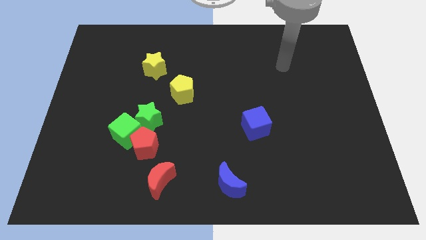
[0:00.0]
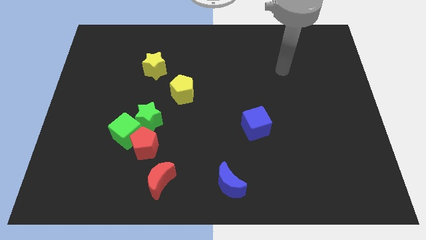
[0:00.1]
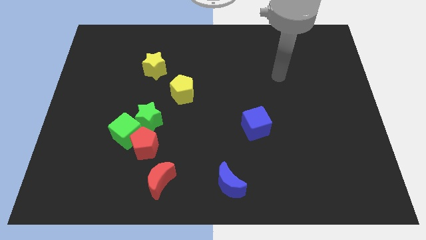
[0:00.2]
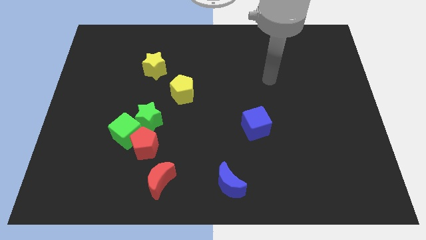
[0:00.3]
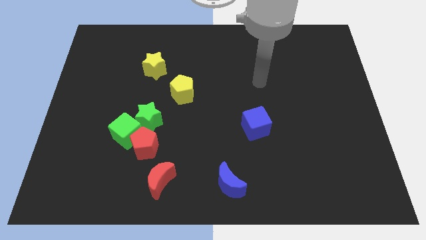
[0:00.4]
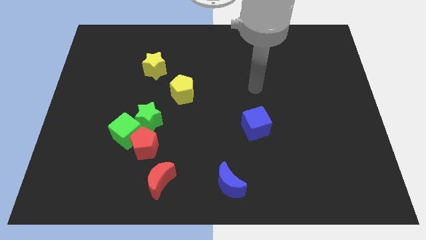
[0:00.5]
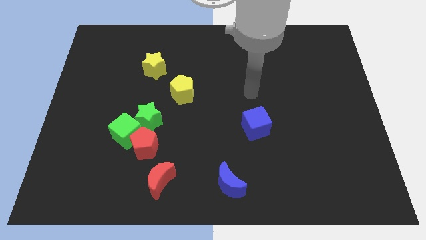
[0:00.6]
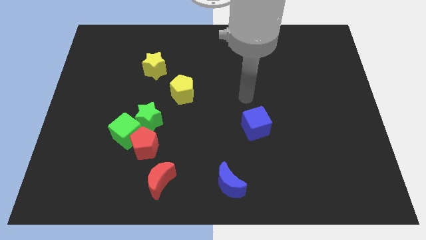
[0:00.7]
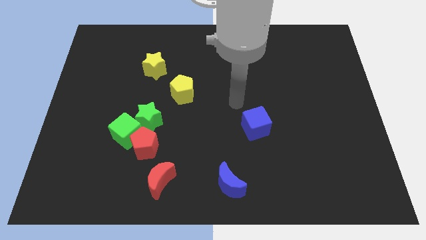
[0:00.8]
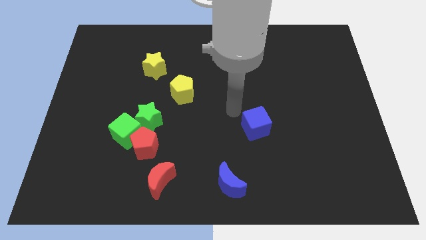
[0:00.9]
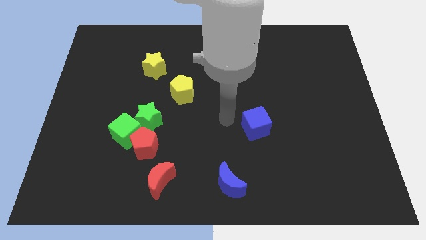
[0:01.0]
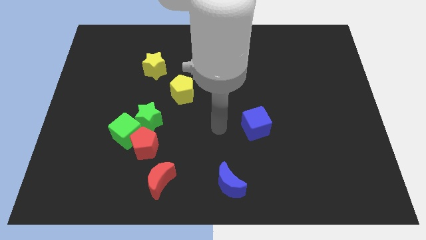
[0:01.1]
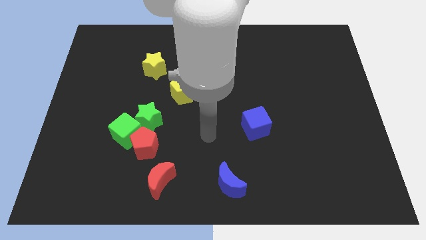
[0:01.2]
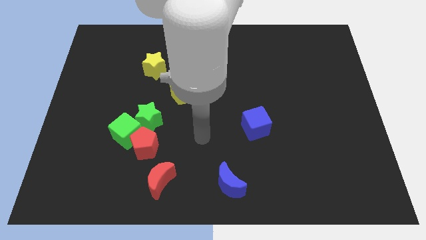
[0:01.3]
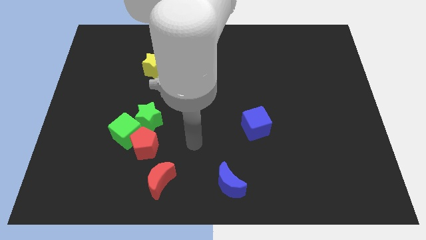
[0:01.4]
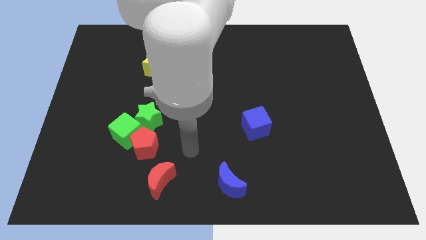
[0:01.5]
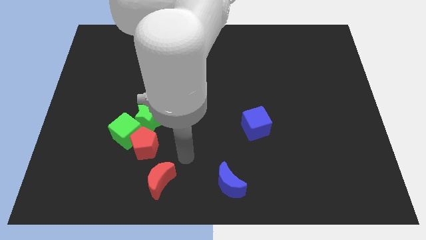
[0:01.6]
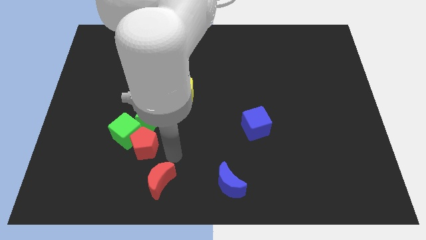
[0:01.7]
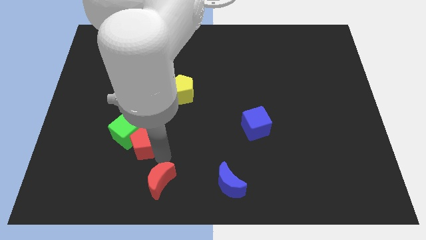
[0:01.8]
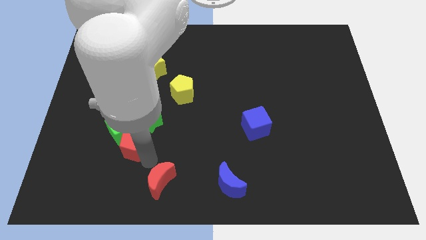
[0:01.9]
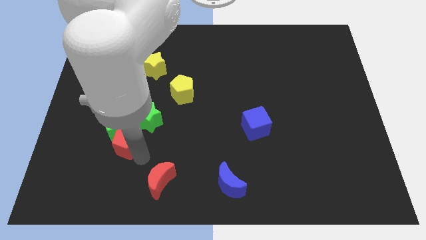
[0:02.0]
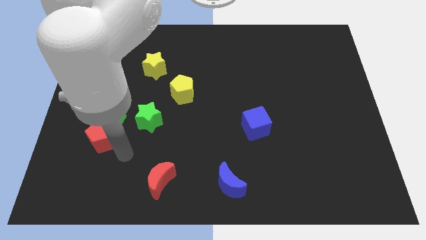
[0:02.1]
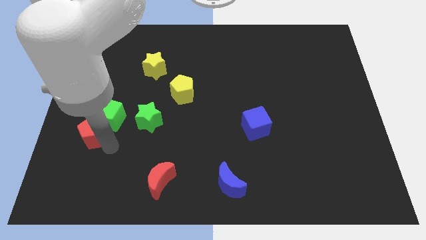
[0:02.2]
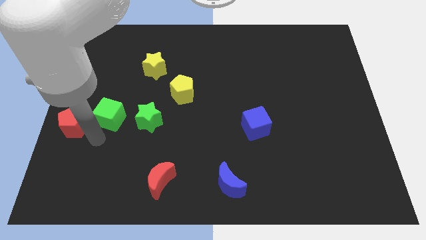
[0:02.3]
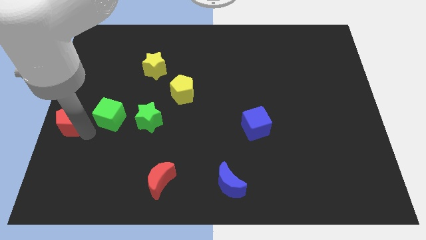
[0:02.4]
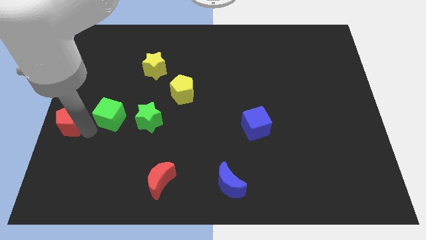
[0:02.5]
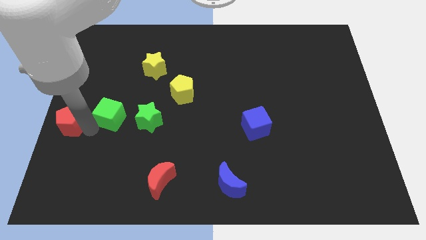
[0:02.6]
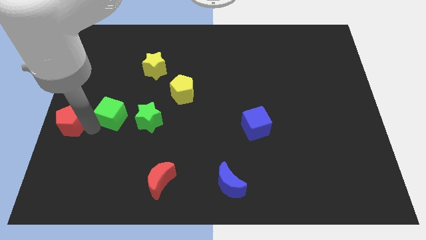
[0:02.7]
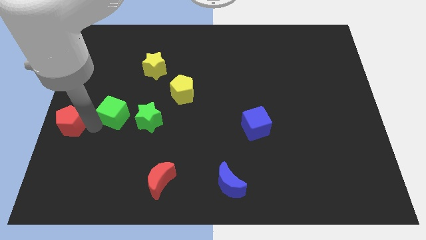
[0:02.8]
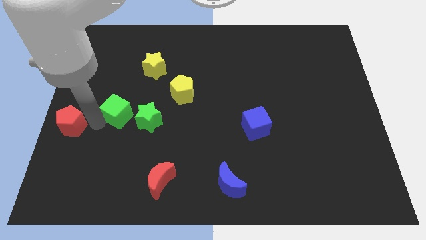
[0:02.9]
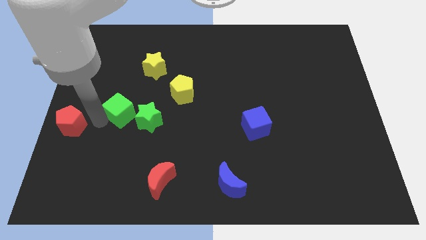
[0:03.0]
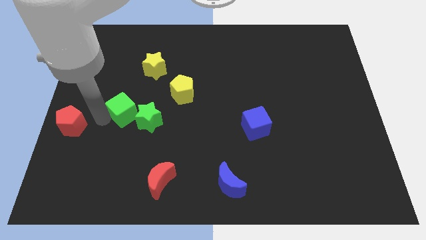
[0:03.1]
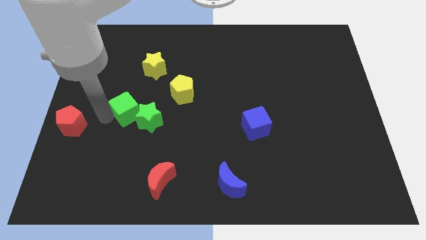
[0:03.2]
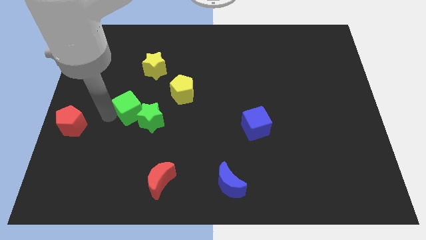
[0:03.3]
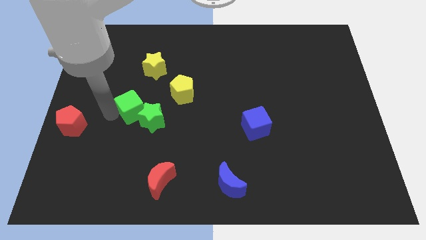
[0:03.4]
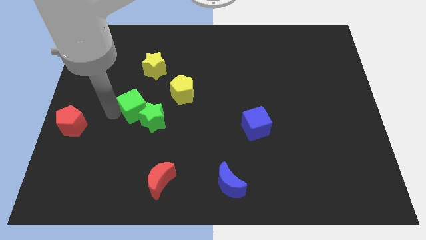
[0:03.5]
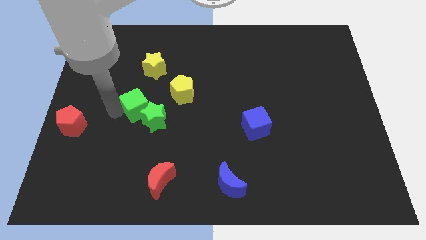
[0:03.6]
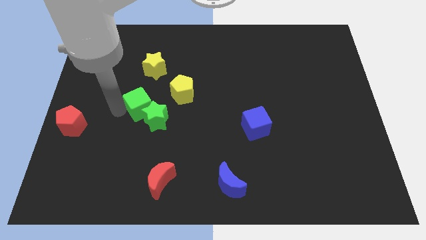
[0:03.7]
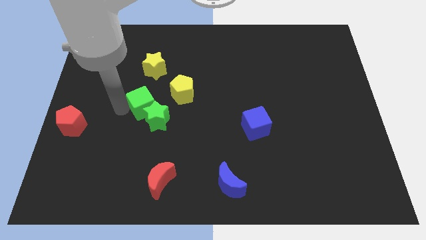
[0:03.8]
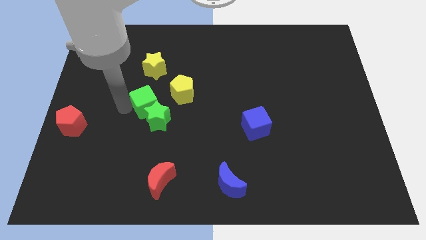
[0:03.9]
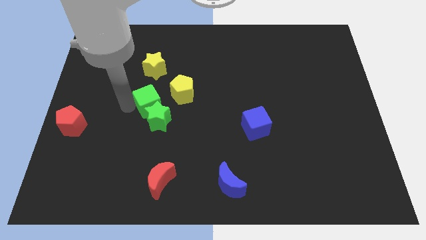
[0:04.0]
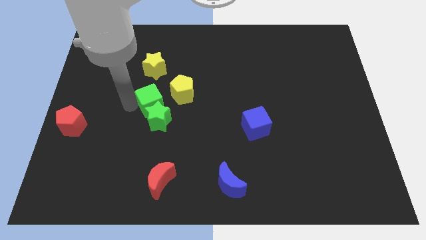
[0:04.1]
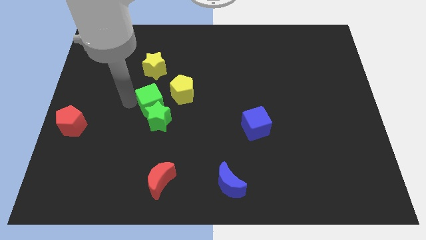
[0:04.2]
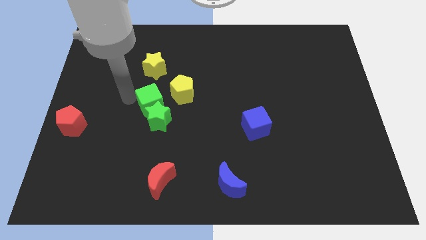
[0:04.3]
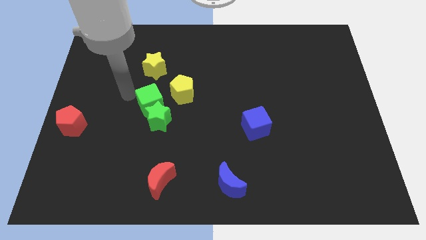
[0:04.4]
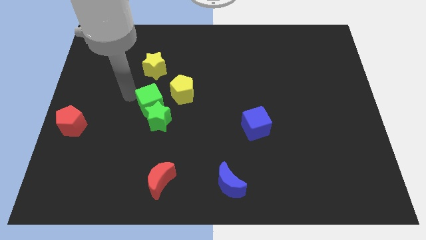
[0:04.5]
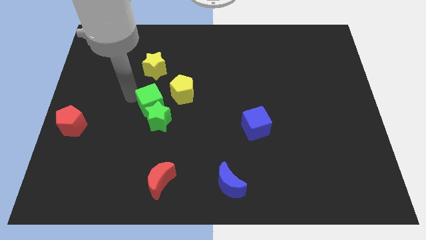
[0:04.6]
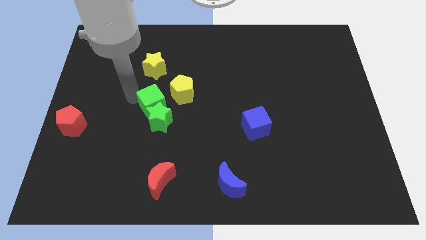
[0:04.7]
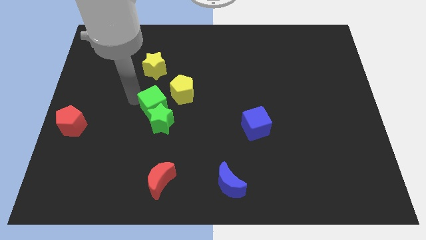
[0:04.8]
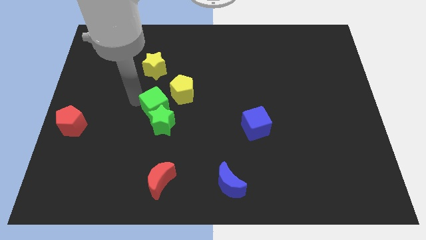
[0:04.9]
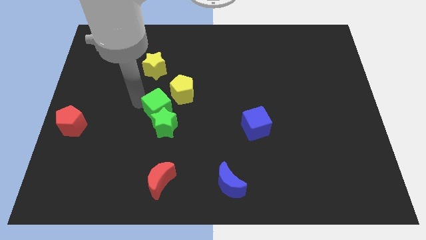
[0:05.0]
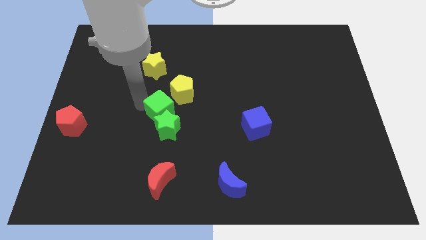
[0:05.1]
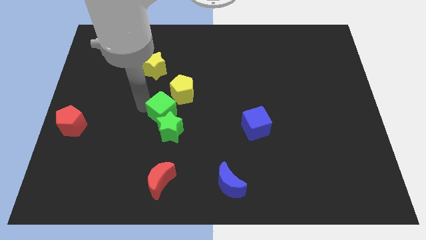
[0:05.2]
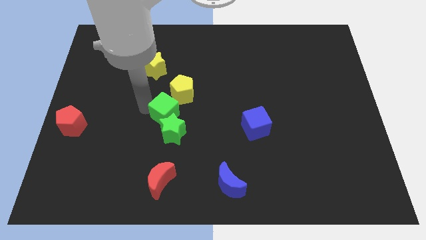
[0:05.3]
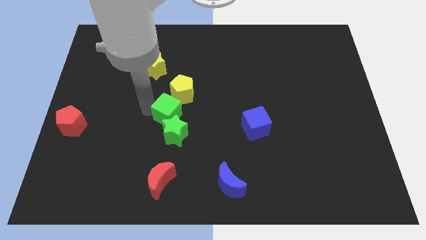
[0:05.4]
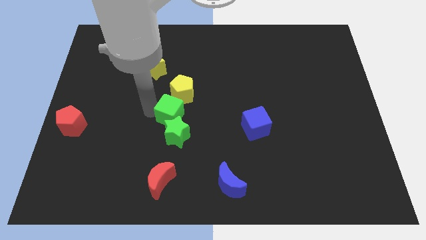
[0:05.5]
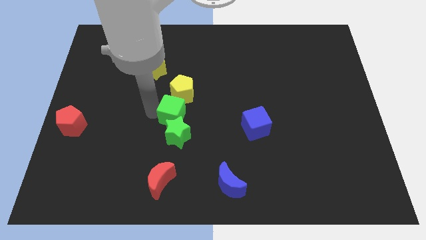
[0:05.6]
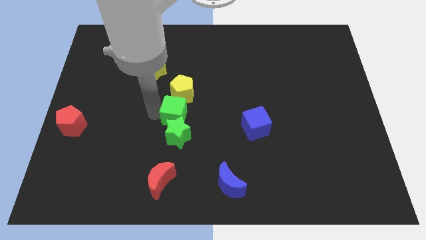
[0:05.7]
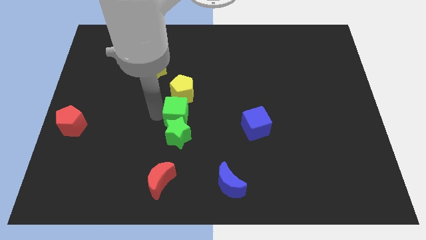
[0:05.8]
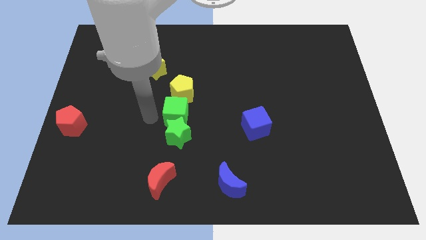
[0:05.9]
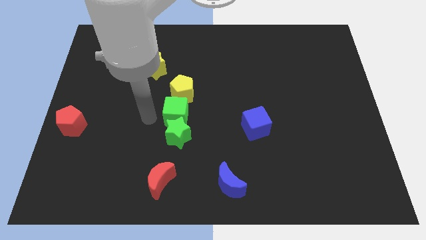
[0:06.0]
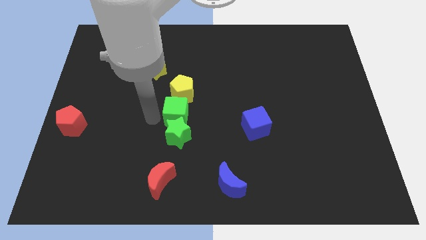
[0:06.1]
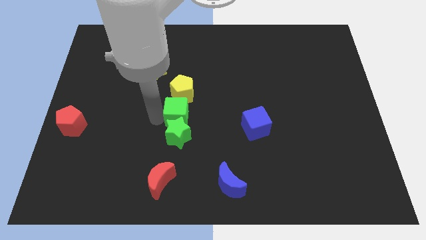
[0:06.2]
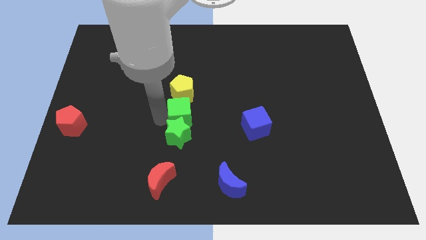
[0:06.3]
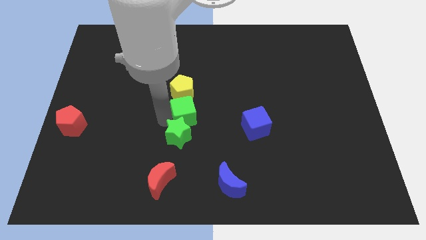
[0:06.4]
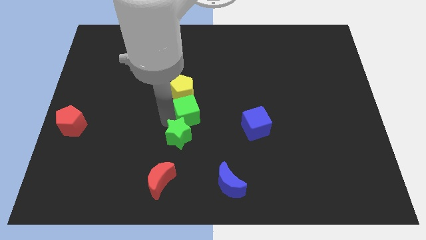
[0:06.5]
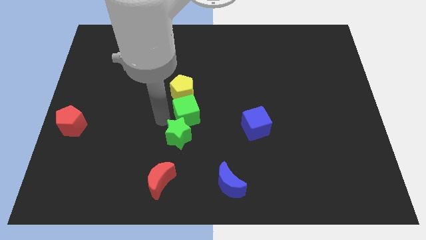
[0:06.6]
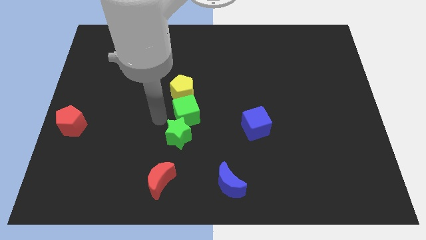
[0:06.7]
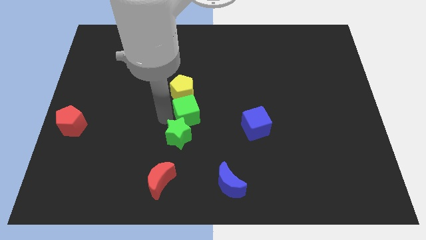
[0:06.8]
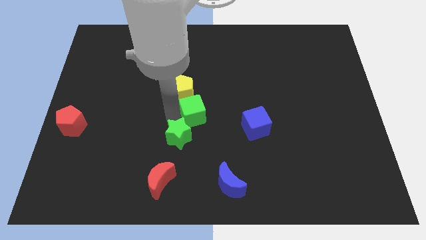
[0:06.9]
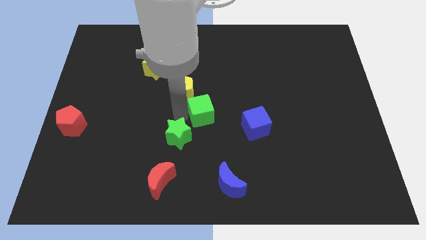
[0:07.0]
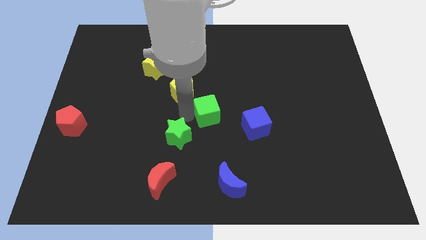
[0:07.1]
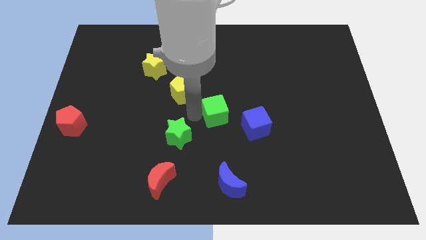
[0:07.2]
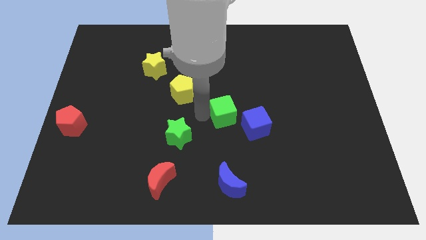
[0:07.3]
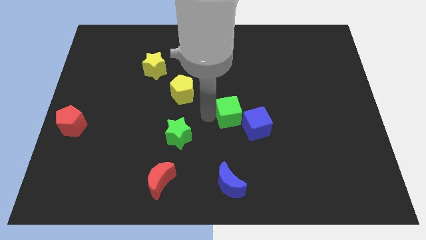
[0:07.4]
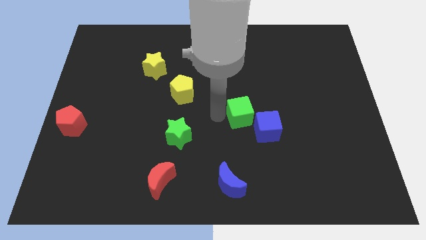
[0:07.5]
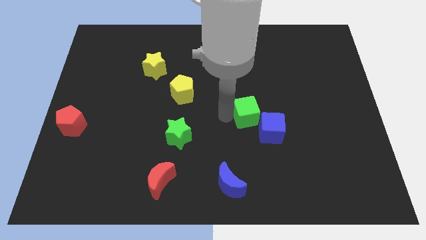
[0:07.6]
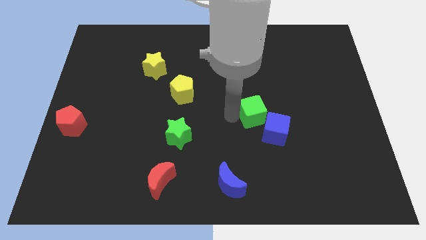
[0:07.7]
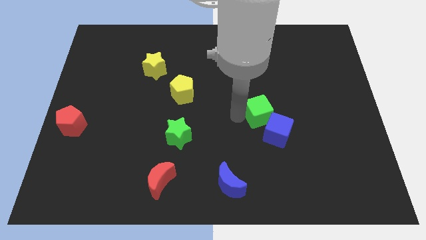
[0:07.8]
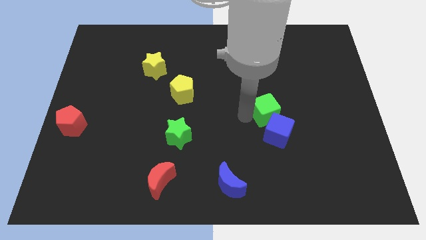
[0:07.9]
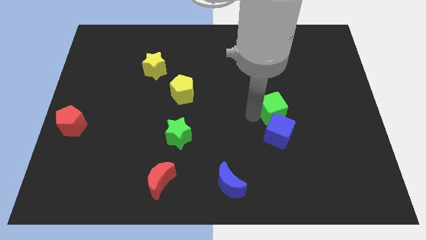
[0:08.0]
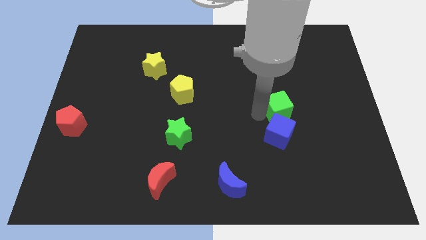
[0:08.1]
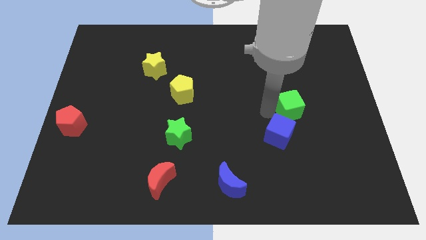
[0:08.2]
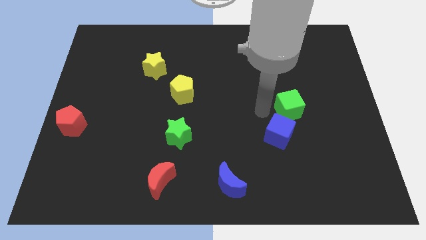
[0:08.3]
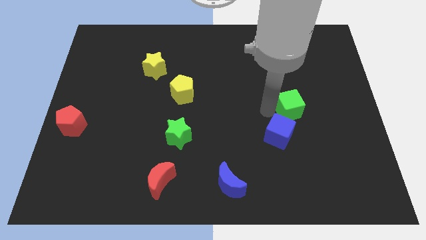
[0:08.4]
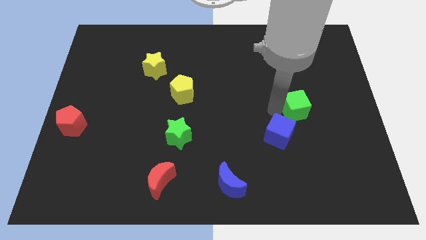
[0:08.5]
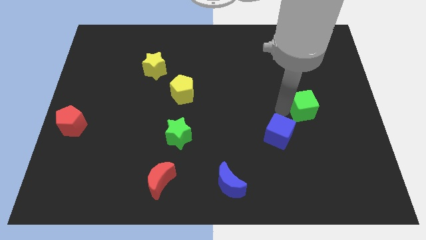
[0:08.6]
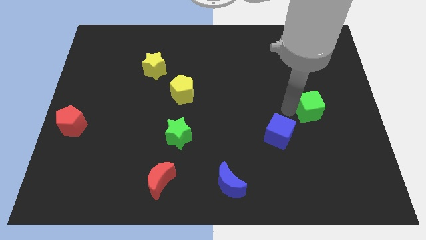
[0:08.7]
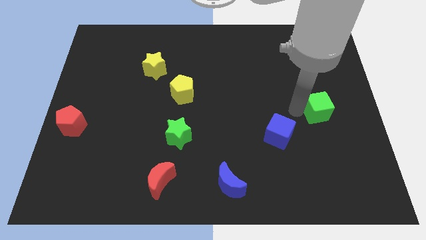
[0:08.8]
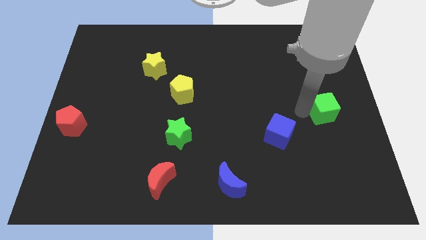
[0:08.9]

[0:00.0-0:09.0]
push the green cube to the right side
